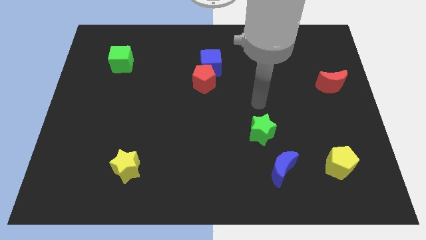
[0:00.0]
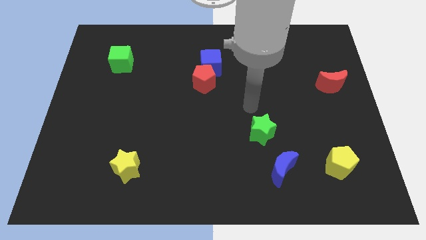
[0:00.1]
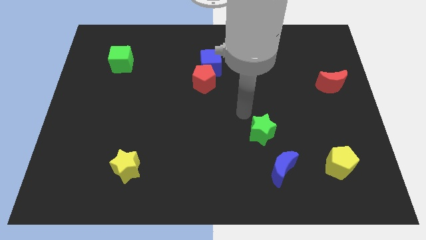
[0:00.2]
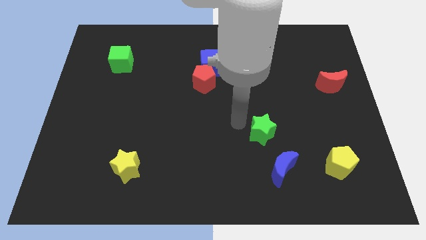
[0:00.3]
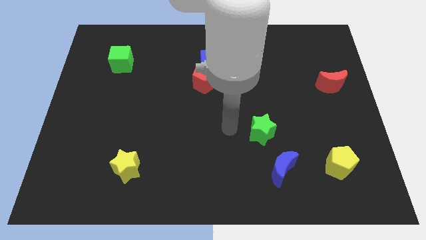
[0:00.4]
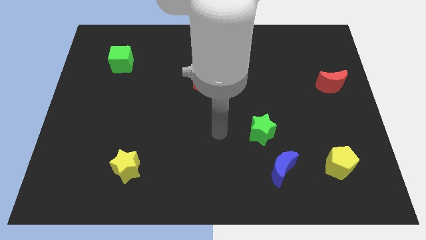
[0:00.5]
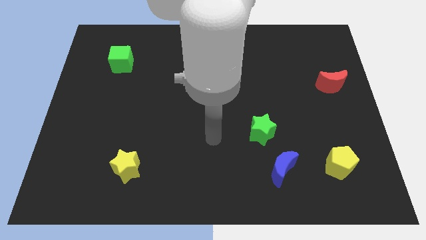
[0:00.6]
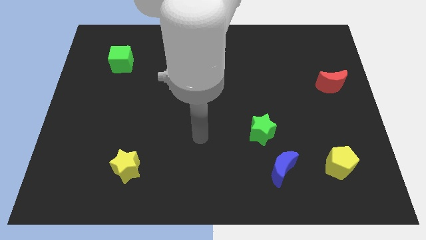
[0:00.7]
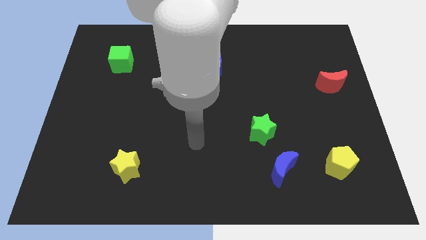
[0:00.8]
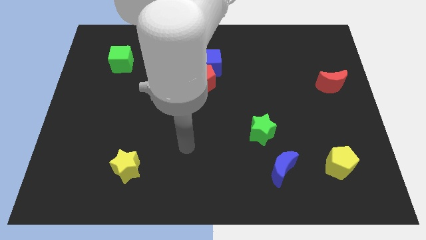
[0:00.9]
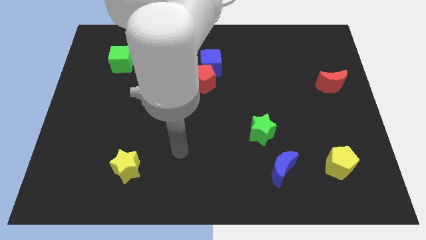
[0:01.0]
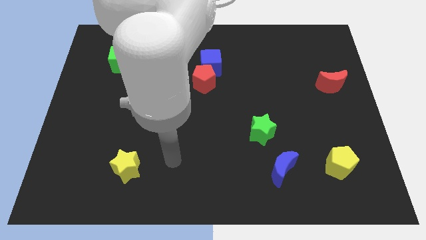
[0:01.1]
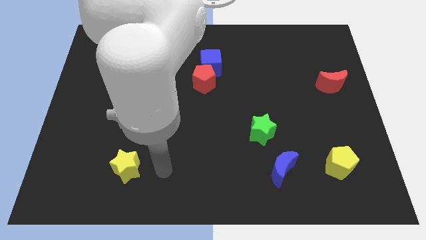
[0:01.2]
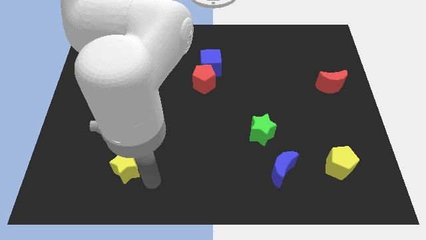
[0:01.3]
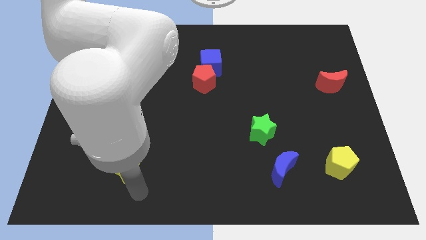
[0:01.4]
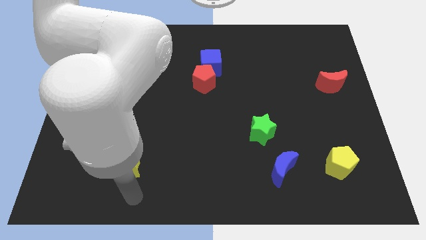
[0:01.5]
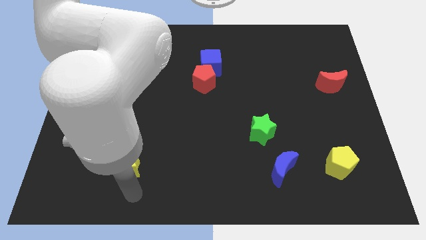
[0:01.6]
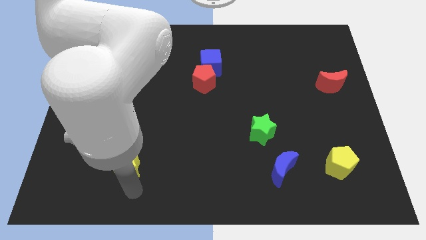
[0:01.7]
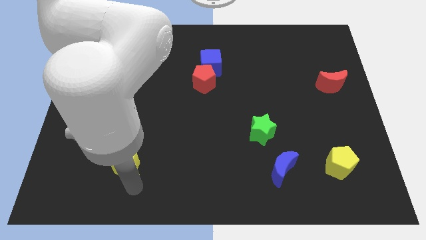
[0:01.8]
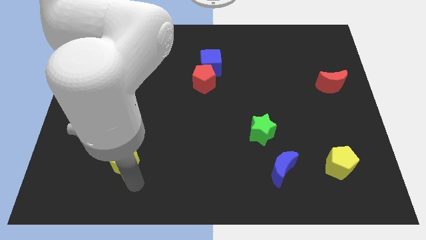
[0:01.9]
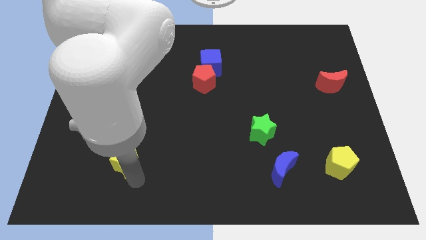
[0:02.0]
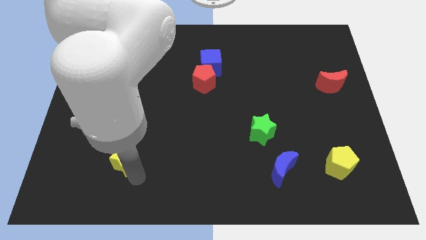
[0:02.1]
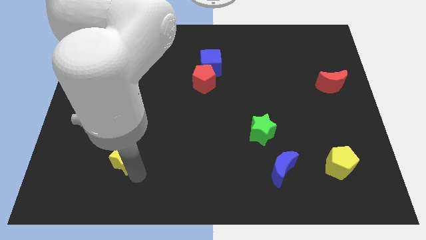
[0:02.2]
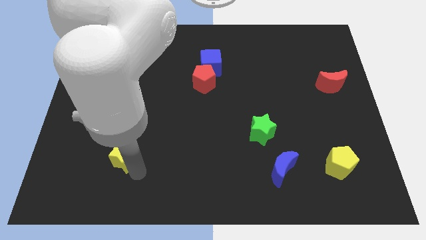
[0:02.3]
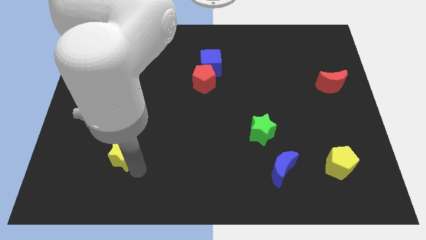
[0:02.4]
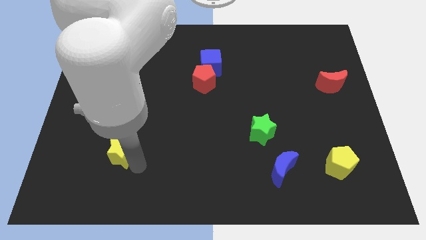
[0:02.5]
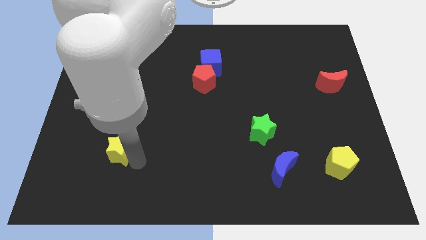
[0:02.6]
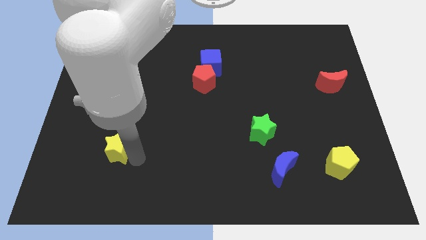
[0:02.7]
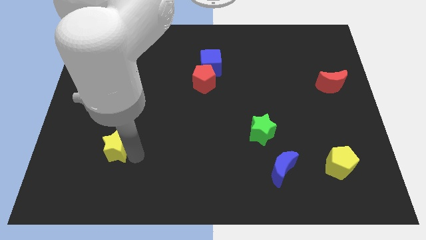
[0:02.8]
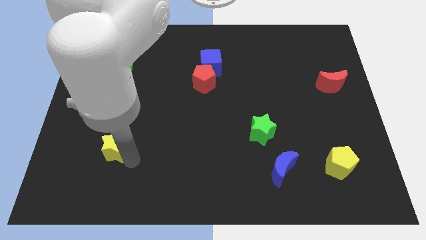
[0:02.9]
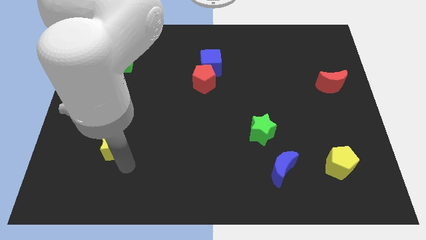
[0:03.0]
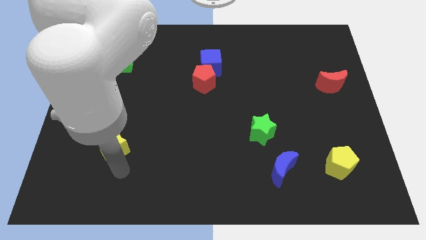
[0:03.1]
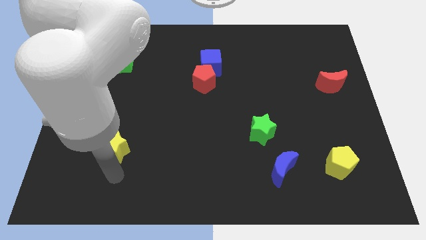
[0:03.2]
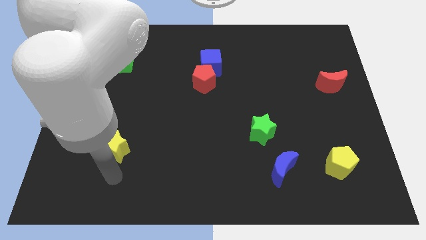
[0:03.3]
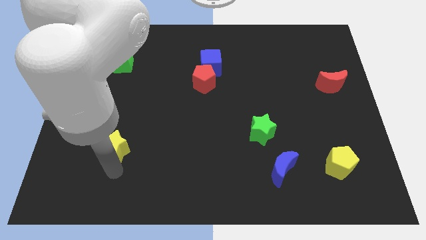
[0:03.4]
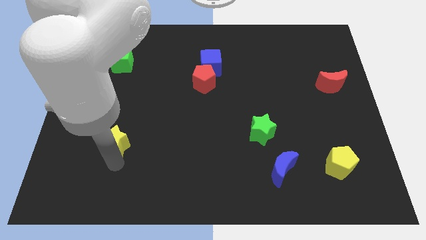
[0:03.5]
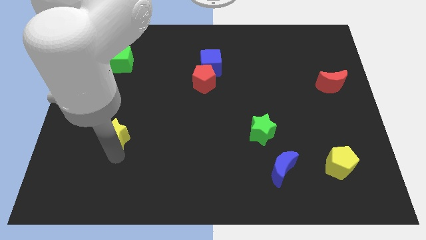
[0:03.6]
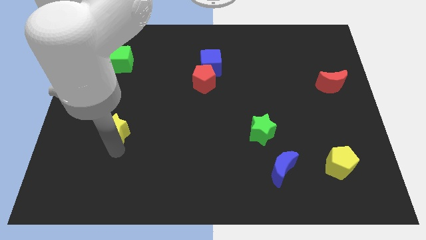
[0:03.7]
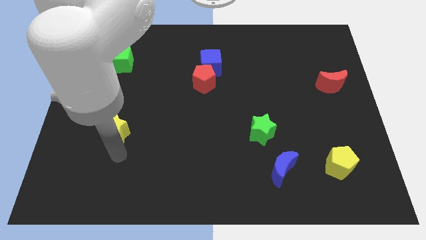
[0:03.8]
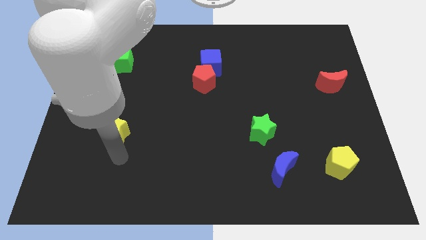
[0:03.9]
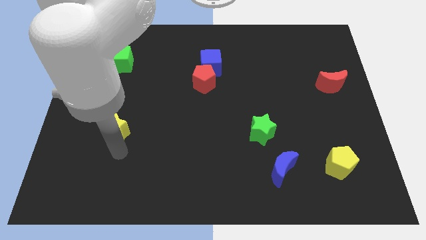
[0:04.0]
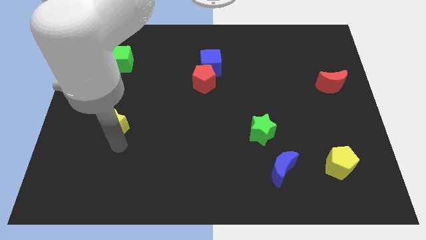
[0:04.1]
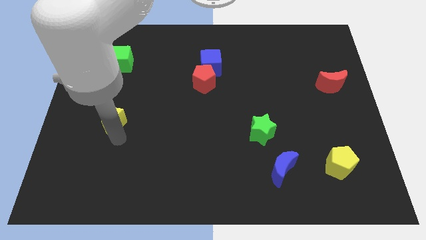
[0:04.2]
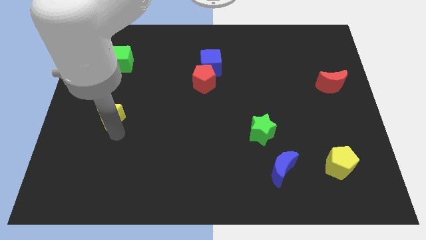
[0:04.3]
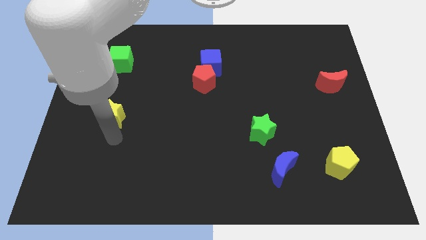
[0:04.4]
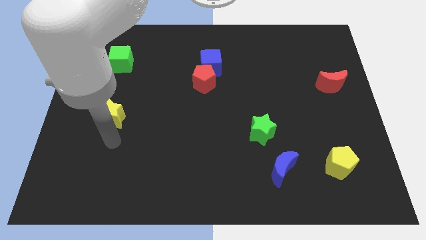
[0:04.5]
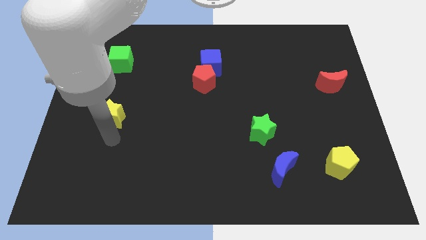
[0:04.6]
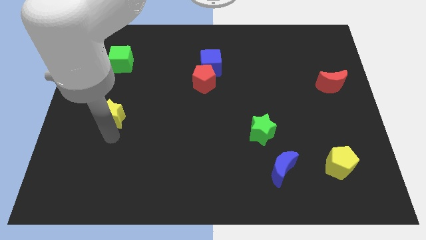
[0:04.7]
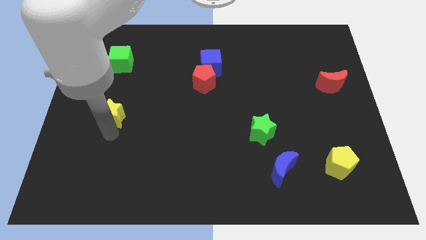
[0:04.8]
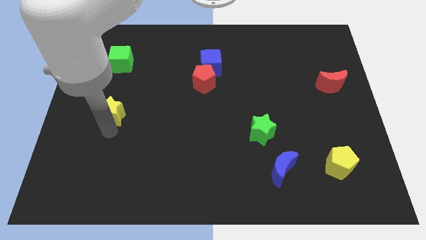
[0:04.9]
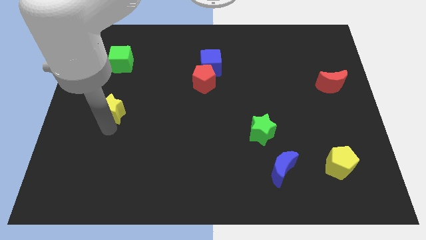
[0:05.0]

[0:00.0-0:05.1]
put the yellow star to the bottom of the green cube

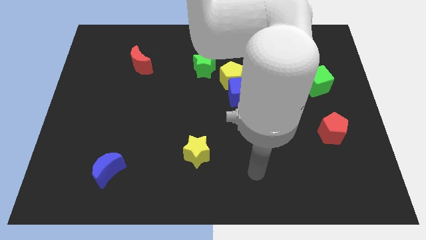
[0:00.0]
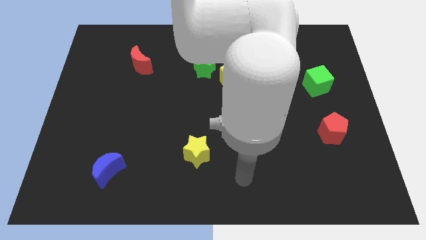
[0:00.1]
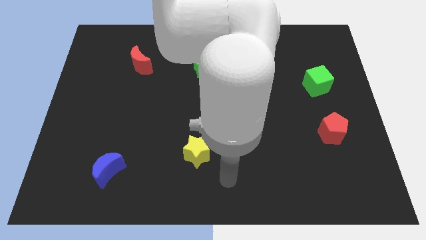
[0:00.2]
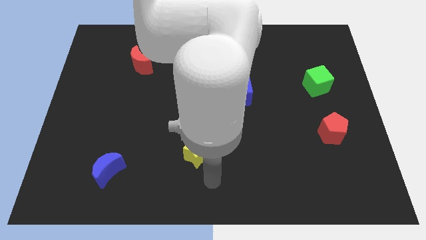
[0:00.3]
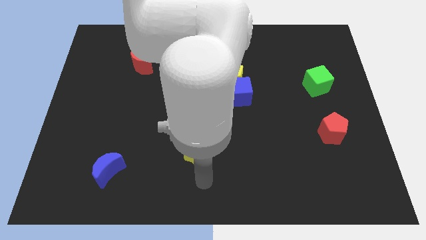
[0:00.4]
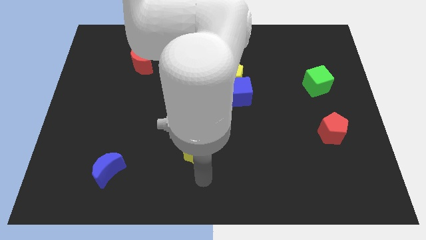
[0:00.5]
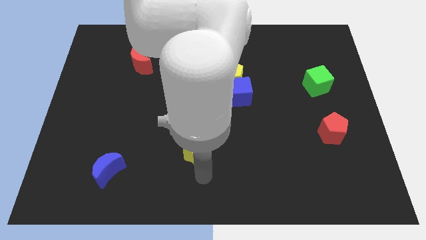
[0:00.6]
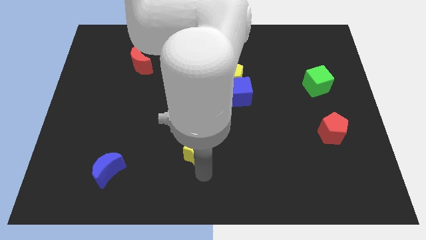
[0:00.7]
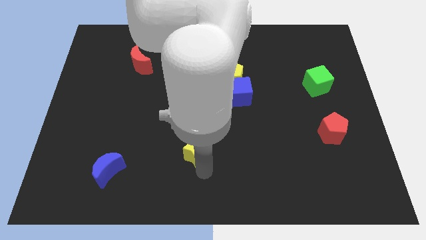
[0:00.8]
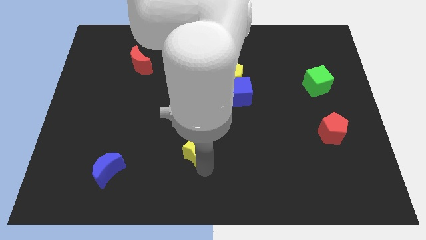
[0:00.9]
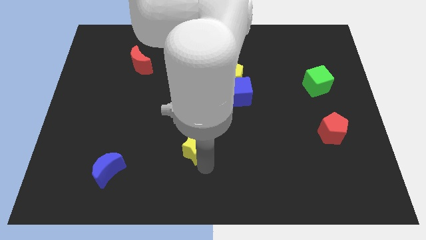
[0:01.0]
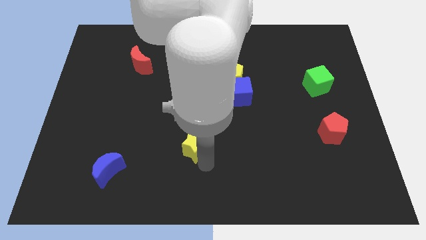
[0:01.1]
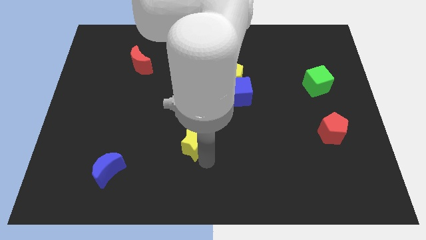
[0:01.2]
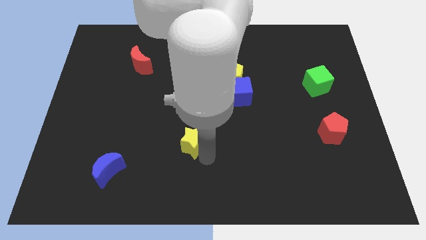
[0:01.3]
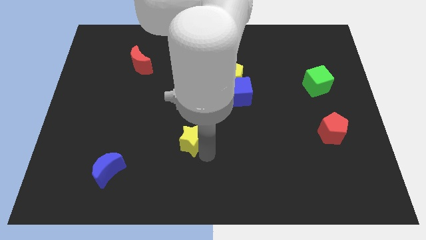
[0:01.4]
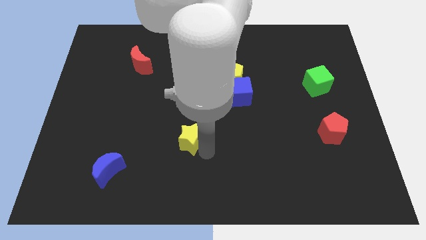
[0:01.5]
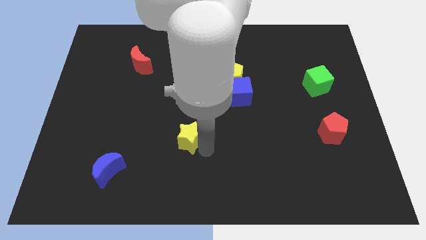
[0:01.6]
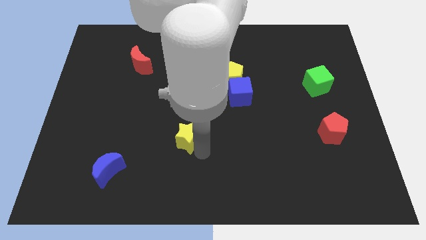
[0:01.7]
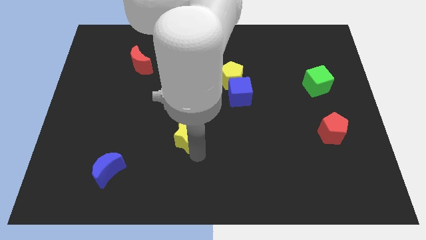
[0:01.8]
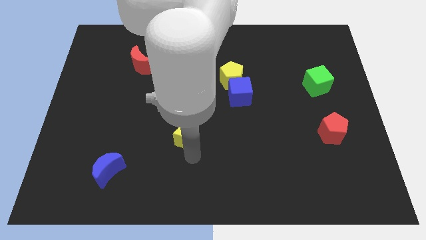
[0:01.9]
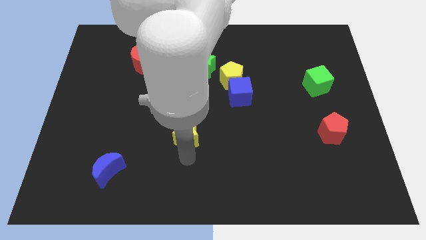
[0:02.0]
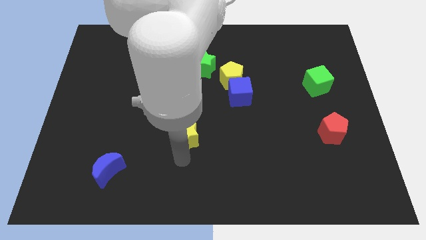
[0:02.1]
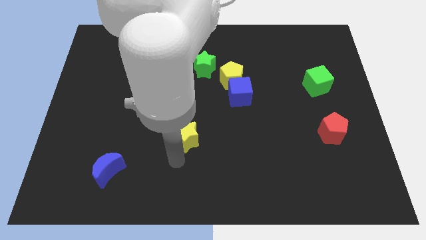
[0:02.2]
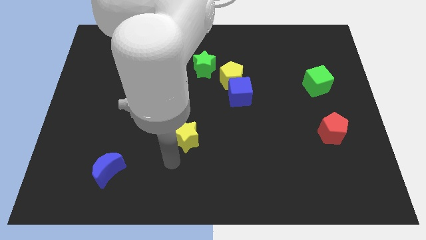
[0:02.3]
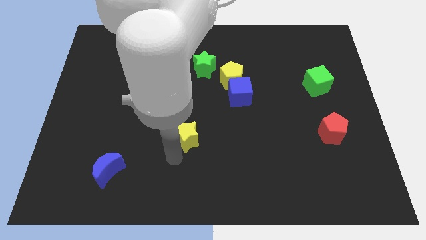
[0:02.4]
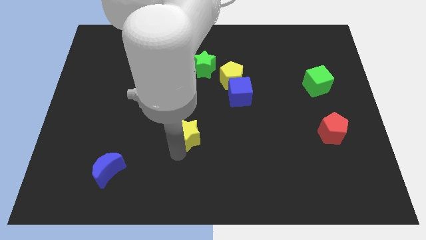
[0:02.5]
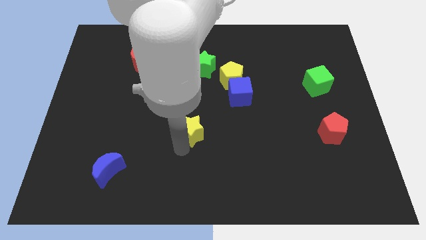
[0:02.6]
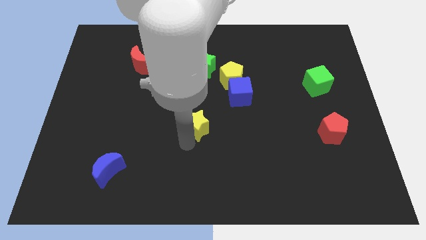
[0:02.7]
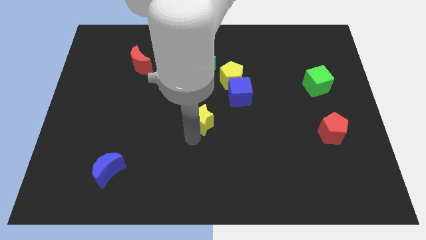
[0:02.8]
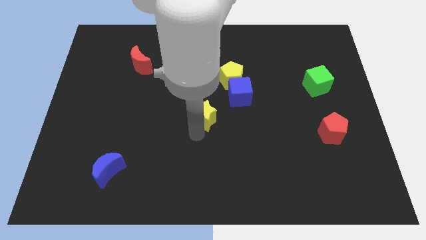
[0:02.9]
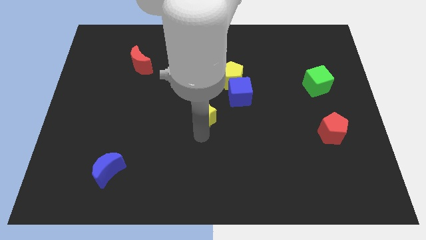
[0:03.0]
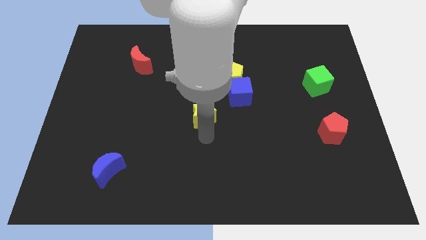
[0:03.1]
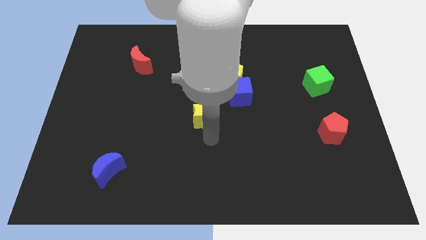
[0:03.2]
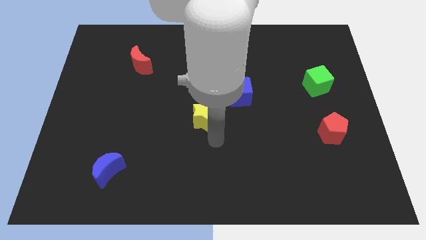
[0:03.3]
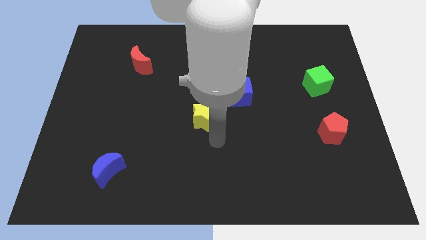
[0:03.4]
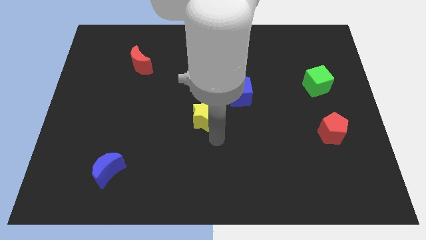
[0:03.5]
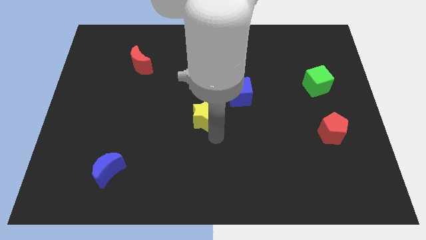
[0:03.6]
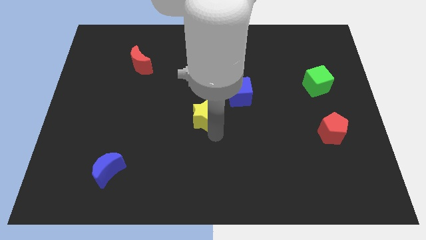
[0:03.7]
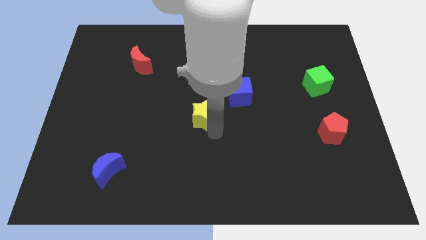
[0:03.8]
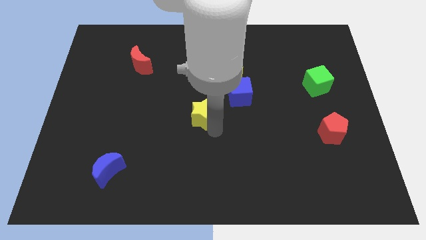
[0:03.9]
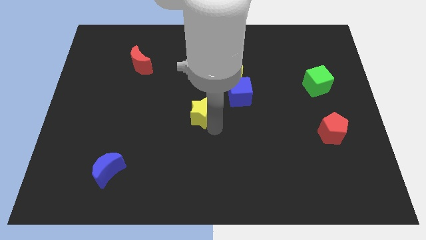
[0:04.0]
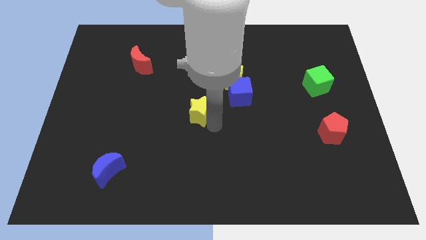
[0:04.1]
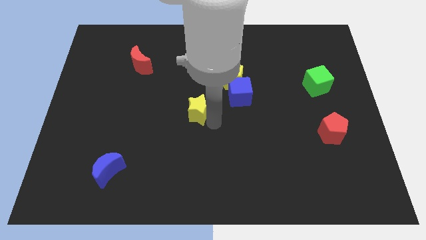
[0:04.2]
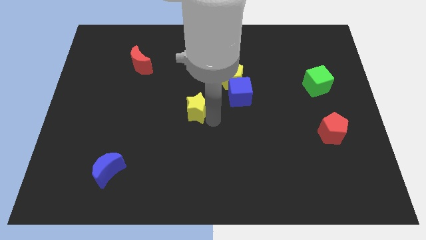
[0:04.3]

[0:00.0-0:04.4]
slide the yellow star left of the blue cube
